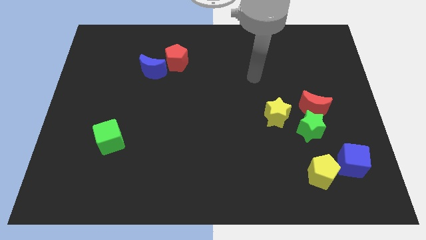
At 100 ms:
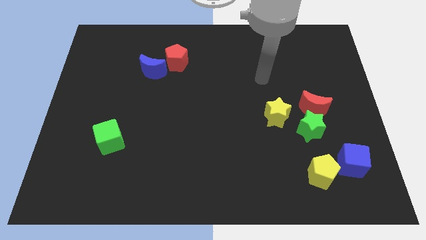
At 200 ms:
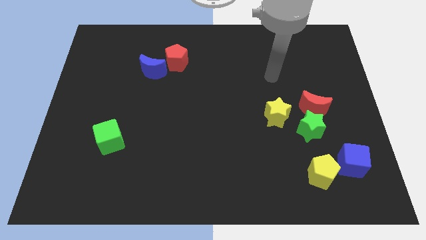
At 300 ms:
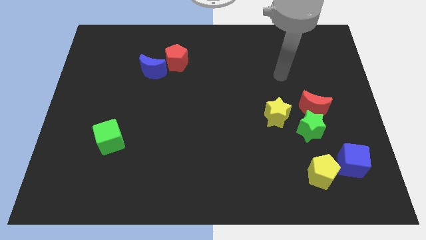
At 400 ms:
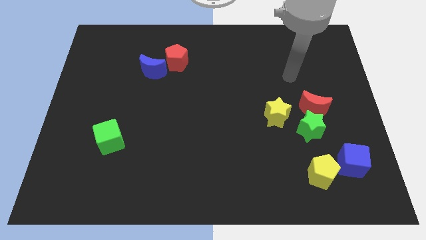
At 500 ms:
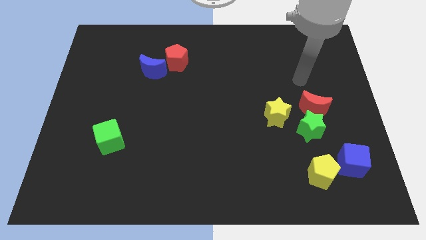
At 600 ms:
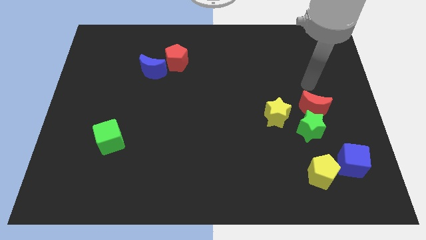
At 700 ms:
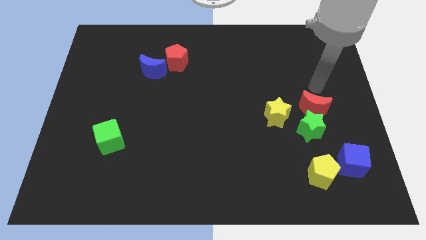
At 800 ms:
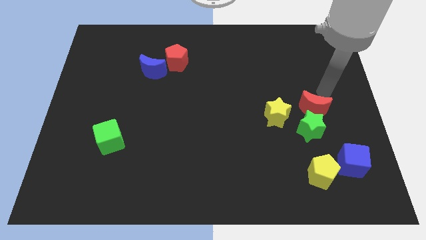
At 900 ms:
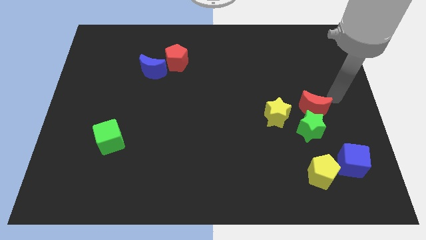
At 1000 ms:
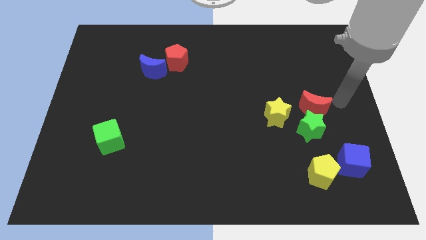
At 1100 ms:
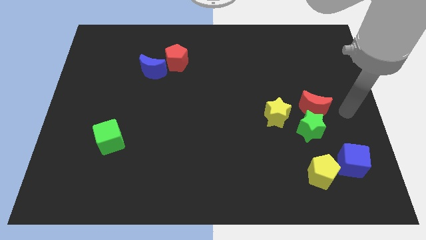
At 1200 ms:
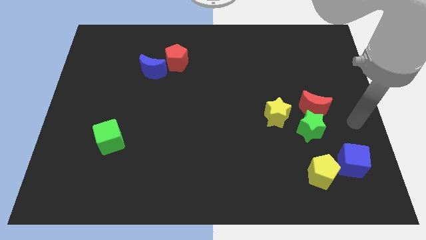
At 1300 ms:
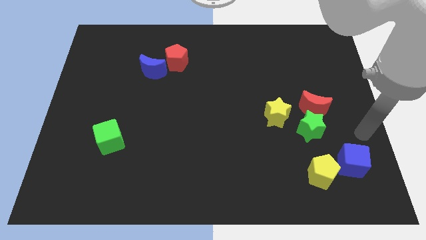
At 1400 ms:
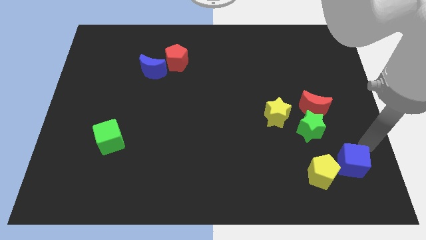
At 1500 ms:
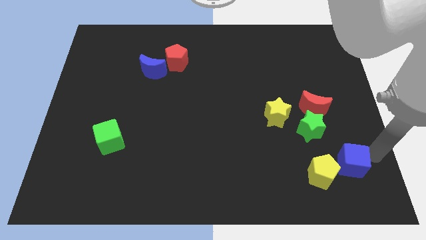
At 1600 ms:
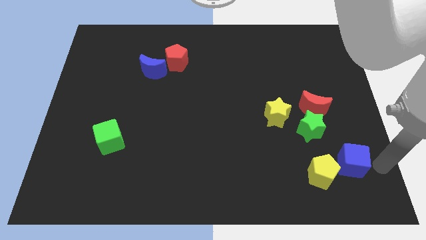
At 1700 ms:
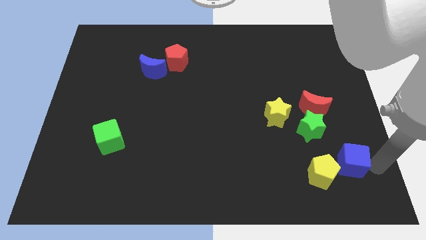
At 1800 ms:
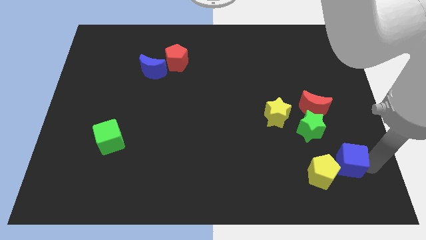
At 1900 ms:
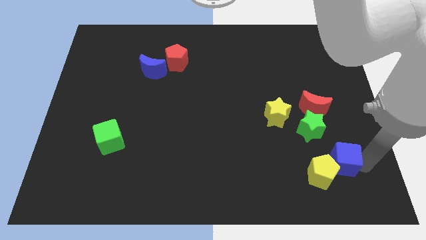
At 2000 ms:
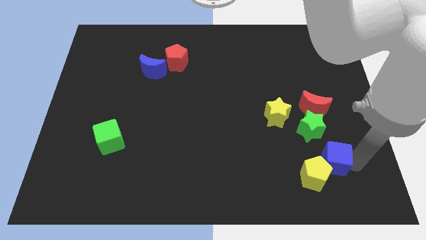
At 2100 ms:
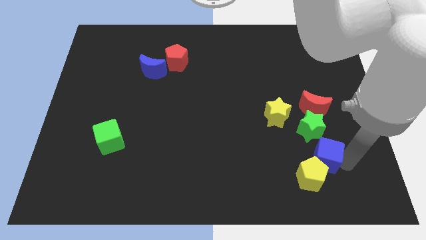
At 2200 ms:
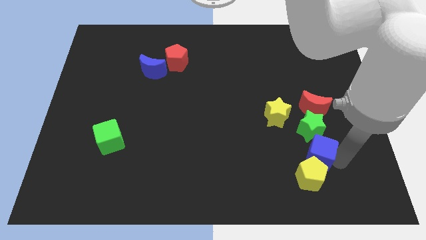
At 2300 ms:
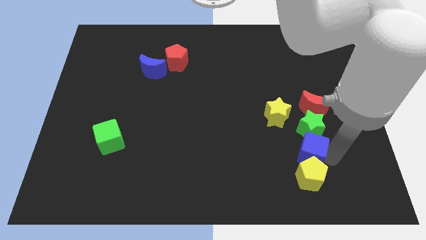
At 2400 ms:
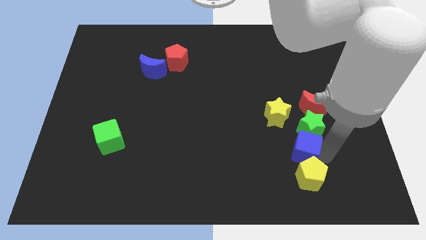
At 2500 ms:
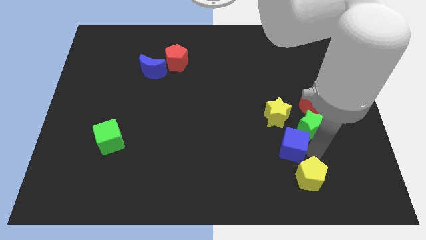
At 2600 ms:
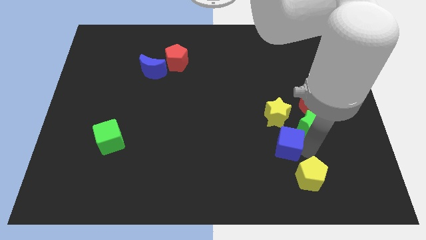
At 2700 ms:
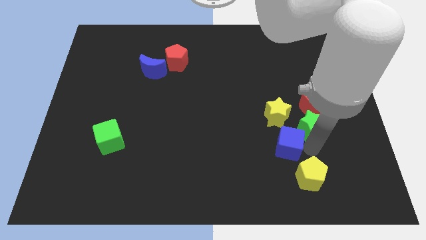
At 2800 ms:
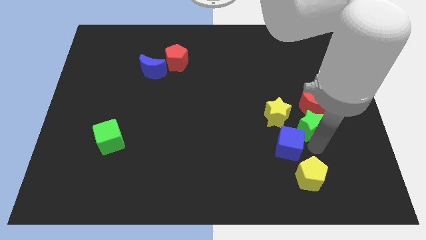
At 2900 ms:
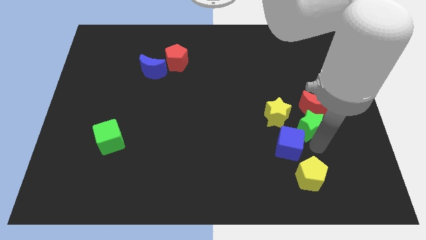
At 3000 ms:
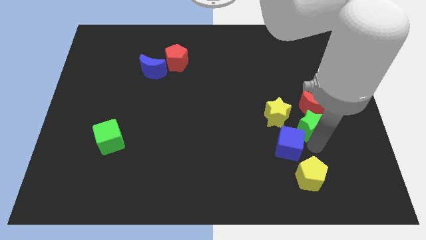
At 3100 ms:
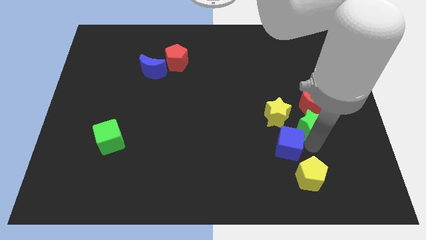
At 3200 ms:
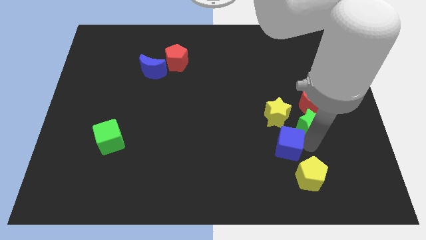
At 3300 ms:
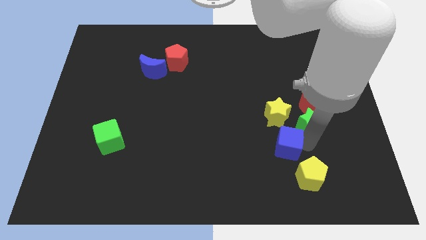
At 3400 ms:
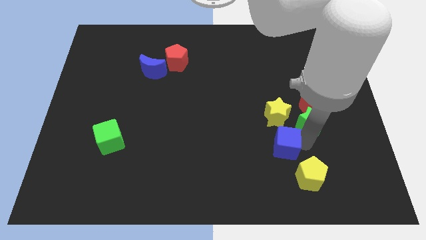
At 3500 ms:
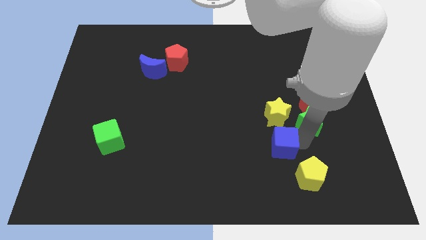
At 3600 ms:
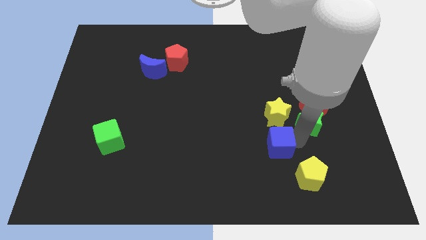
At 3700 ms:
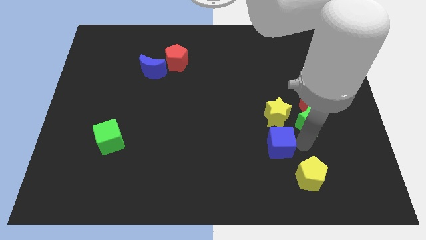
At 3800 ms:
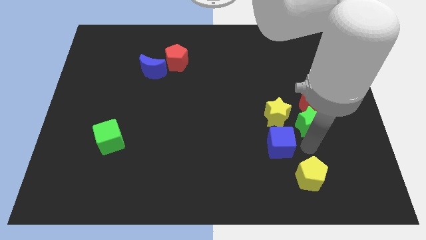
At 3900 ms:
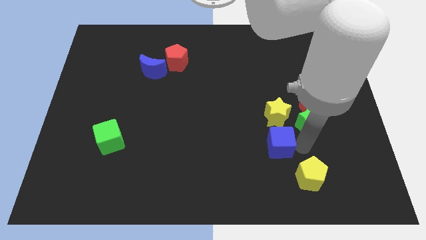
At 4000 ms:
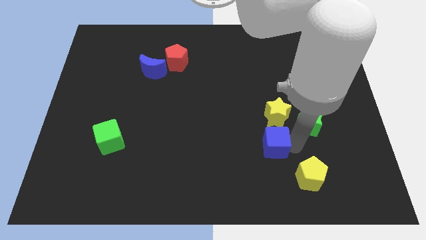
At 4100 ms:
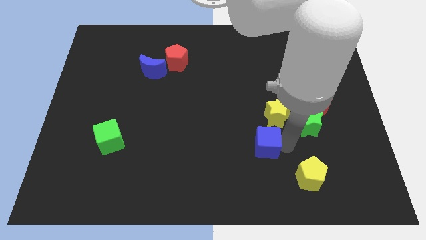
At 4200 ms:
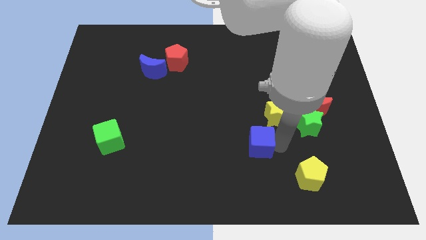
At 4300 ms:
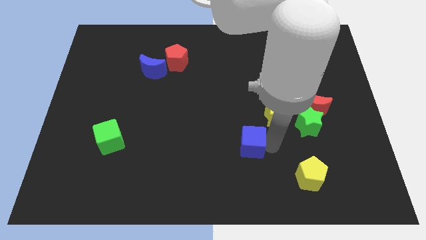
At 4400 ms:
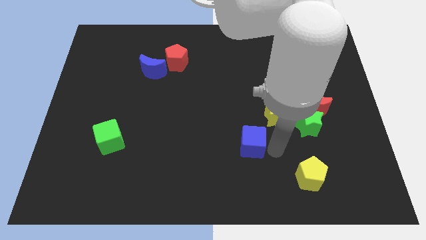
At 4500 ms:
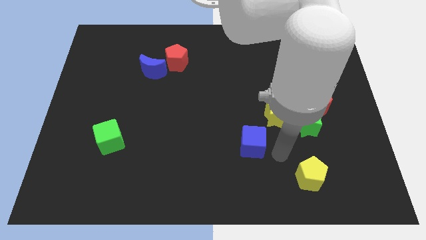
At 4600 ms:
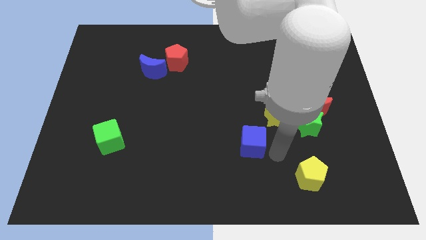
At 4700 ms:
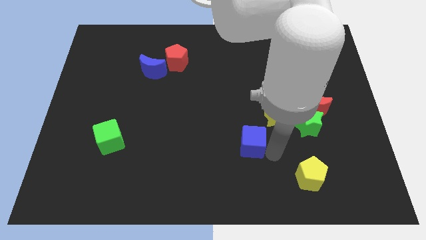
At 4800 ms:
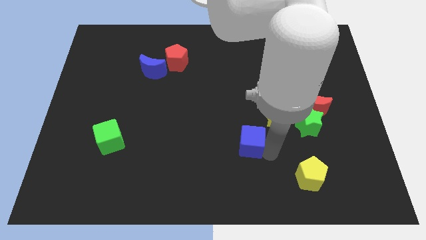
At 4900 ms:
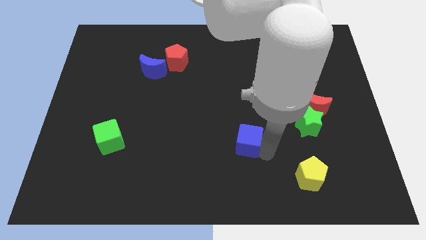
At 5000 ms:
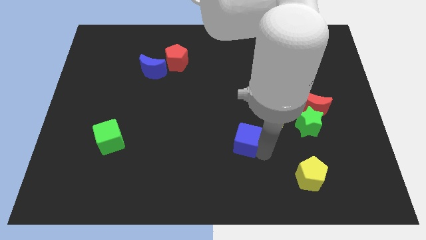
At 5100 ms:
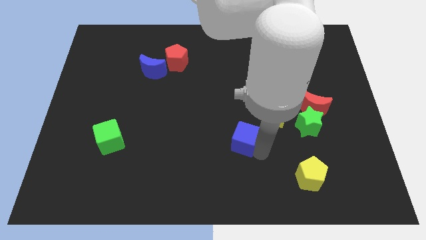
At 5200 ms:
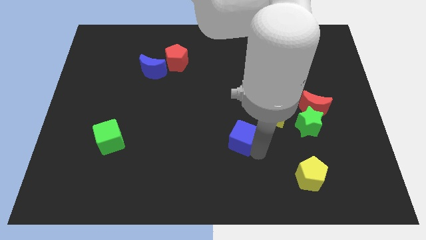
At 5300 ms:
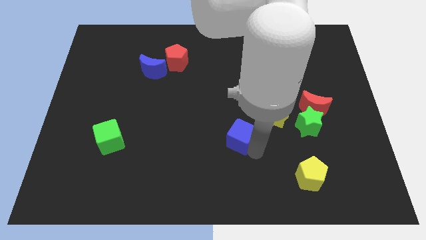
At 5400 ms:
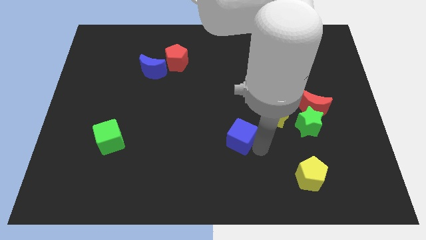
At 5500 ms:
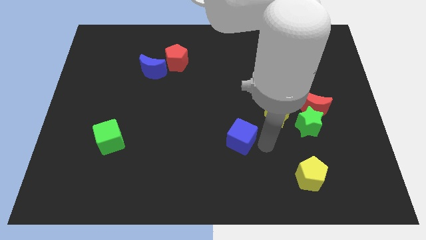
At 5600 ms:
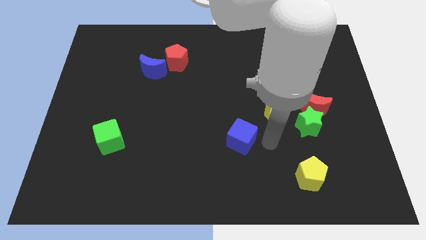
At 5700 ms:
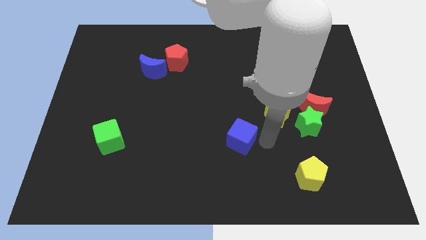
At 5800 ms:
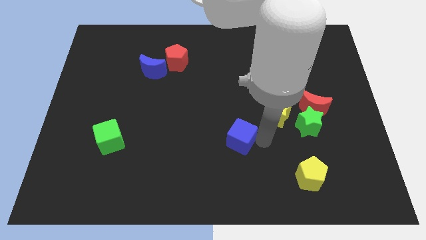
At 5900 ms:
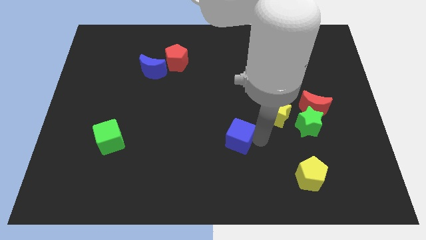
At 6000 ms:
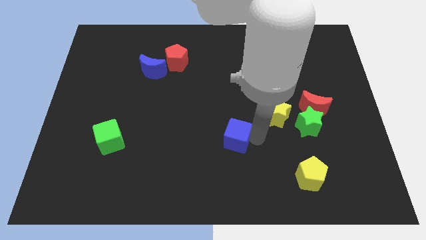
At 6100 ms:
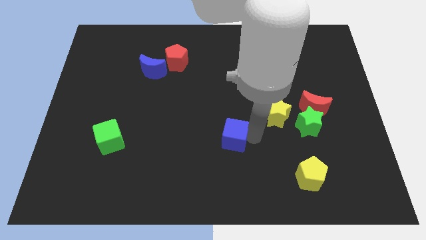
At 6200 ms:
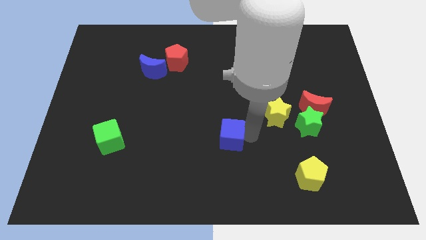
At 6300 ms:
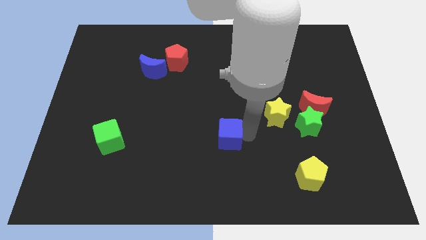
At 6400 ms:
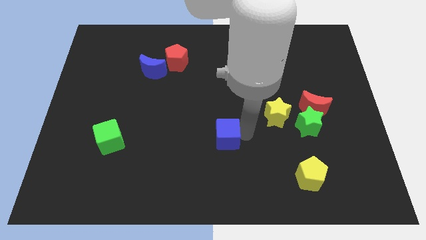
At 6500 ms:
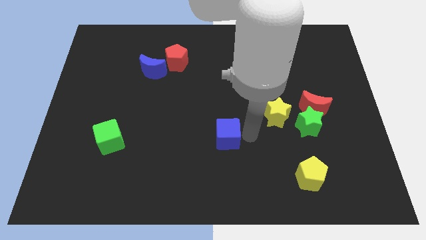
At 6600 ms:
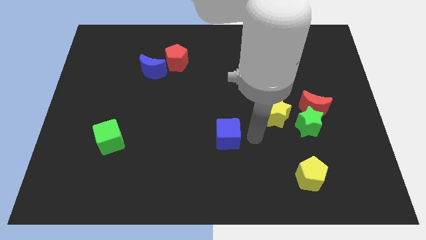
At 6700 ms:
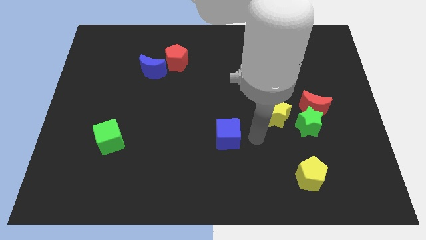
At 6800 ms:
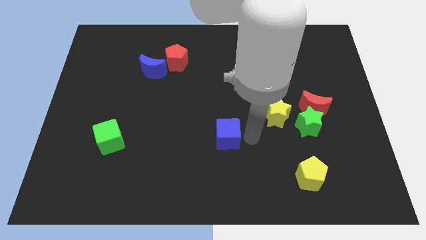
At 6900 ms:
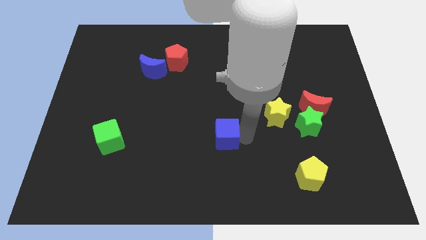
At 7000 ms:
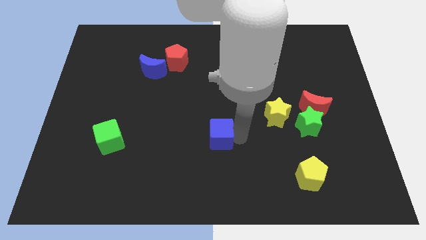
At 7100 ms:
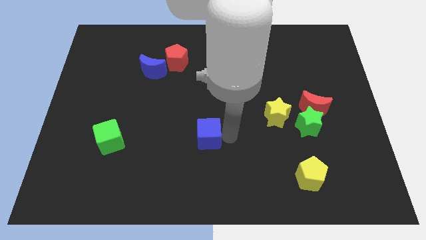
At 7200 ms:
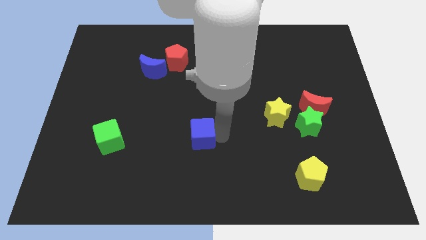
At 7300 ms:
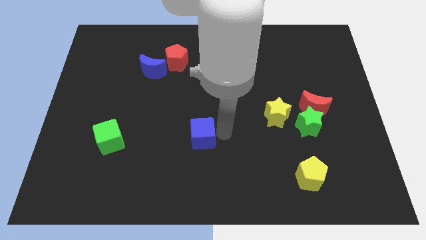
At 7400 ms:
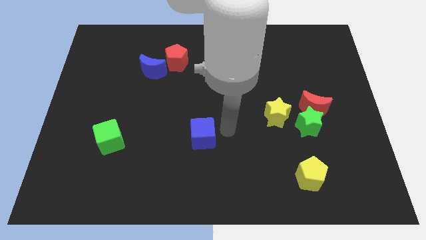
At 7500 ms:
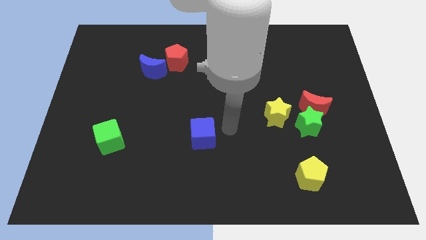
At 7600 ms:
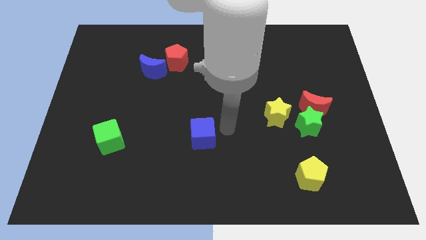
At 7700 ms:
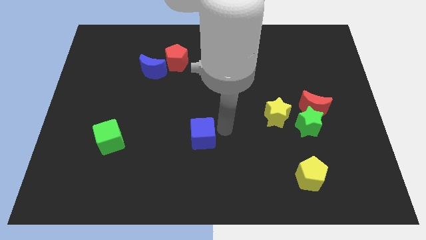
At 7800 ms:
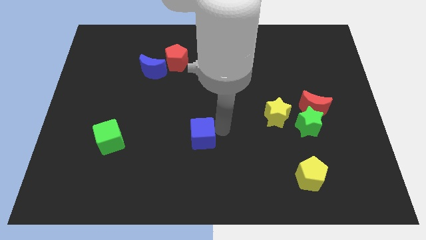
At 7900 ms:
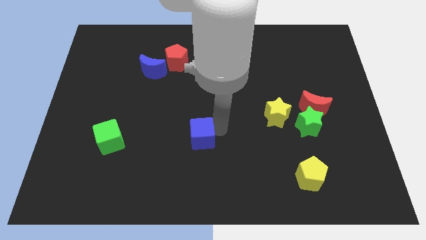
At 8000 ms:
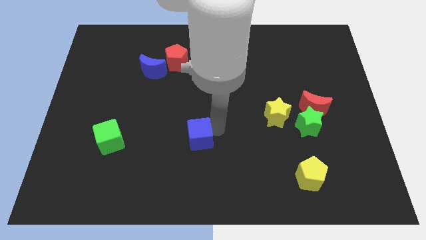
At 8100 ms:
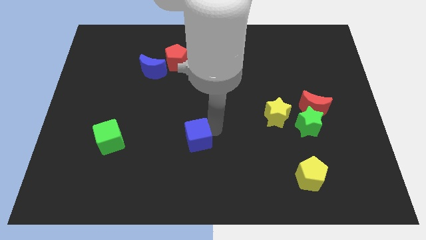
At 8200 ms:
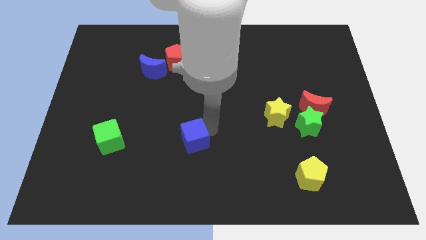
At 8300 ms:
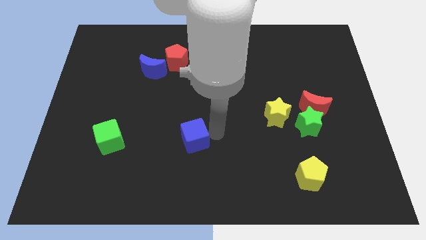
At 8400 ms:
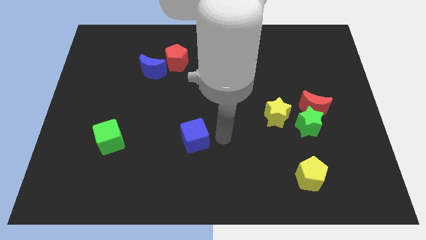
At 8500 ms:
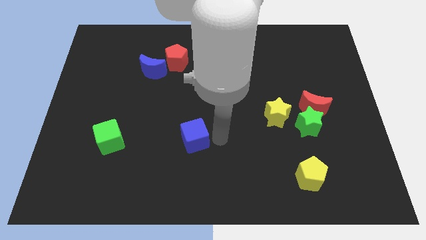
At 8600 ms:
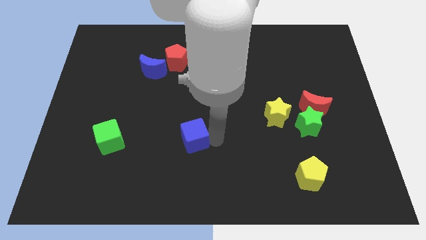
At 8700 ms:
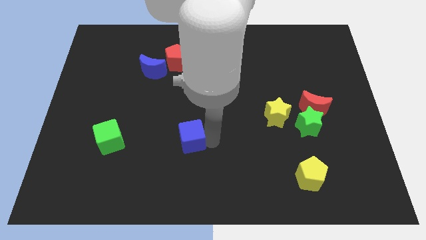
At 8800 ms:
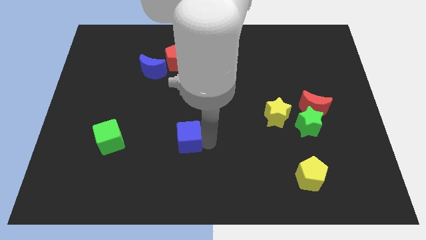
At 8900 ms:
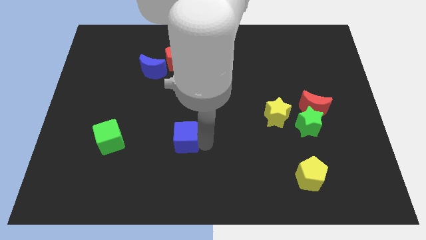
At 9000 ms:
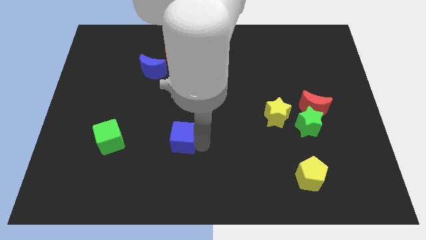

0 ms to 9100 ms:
move the blue cube just right of the green cube
